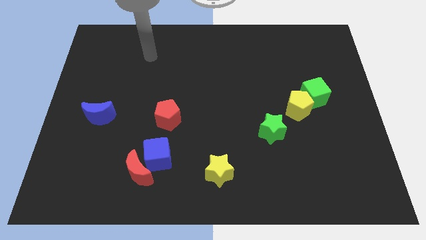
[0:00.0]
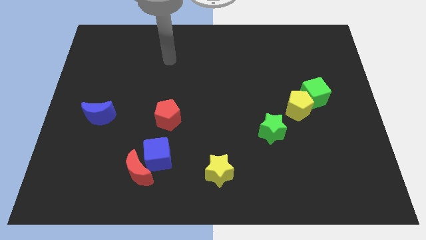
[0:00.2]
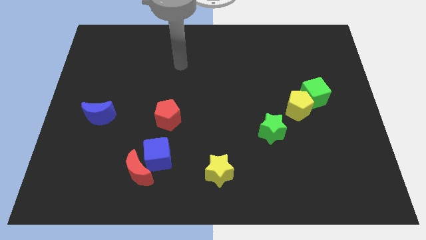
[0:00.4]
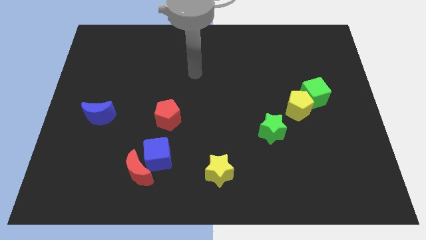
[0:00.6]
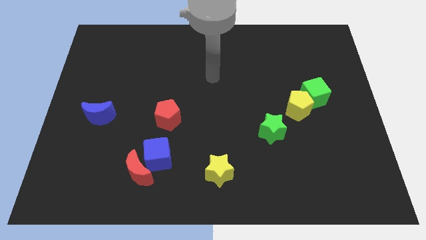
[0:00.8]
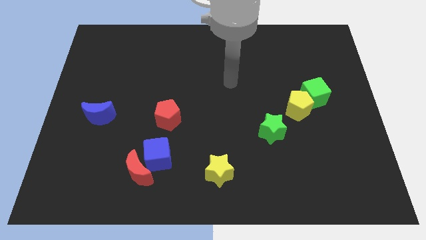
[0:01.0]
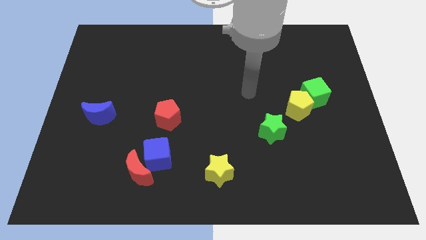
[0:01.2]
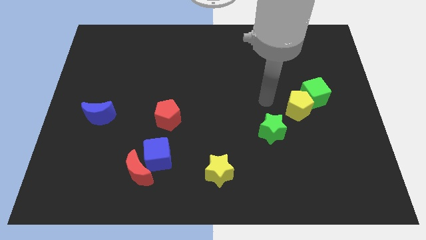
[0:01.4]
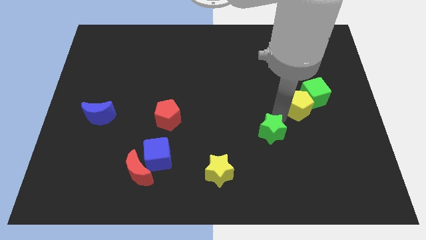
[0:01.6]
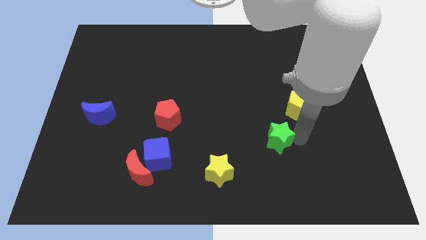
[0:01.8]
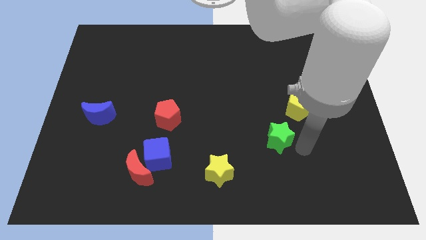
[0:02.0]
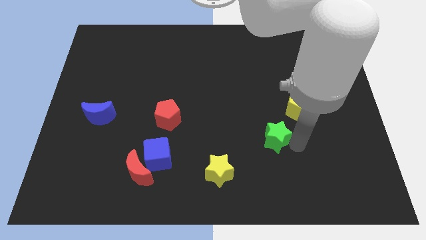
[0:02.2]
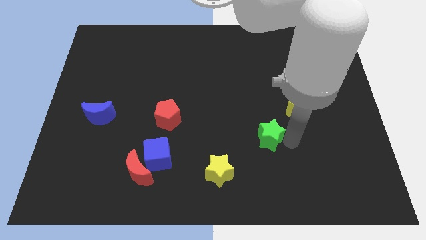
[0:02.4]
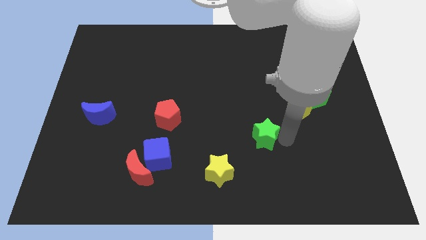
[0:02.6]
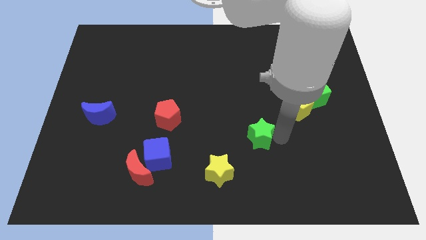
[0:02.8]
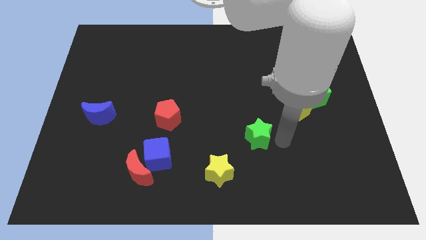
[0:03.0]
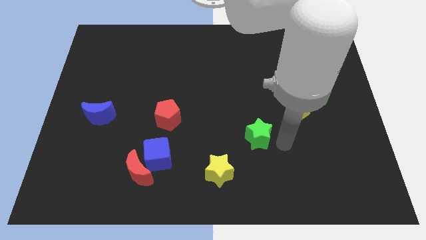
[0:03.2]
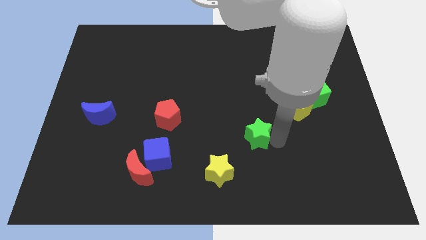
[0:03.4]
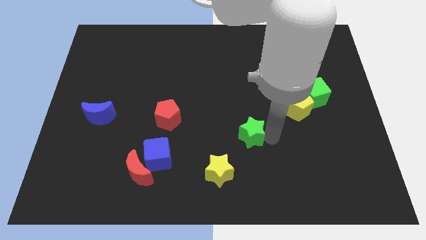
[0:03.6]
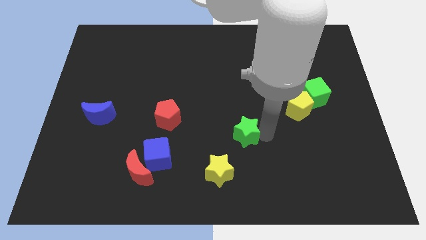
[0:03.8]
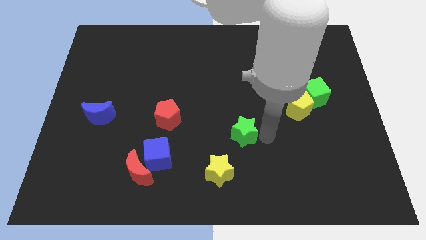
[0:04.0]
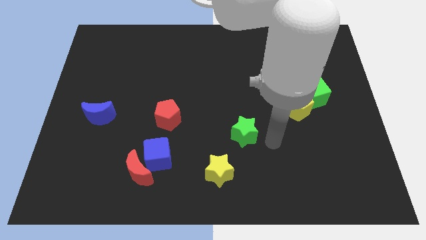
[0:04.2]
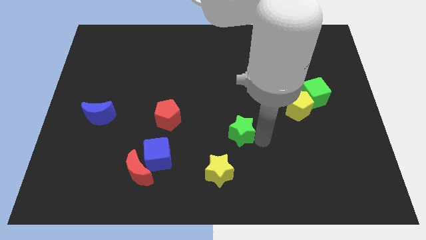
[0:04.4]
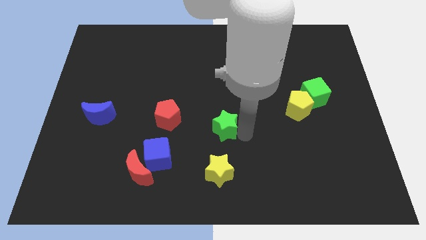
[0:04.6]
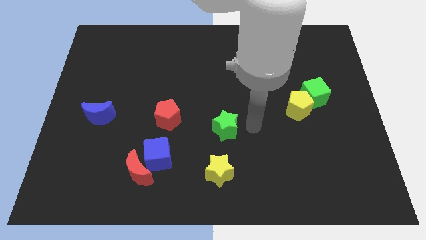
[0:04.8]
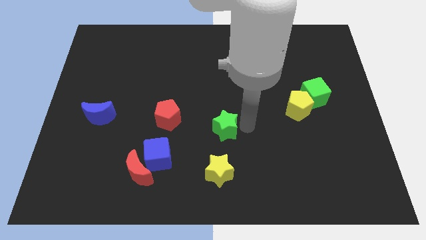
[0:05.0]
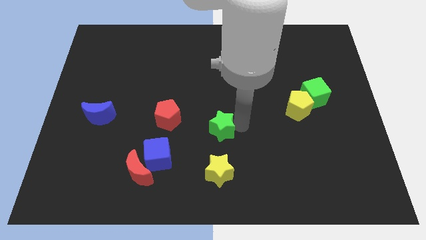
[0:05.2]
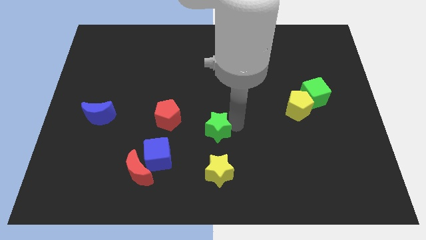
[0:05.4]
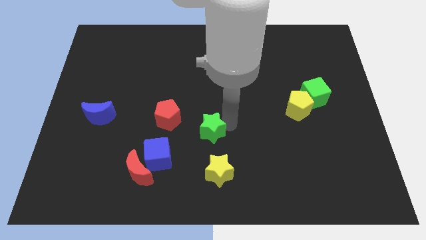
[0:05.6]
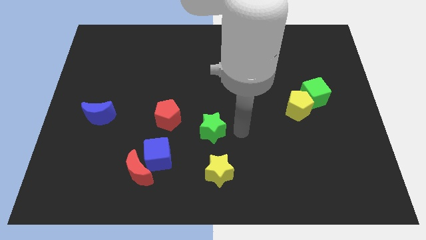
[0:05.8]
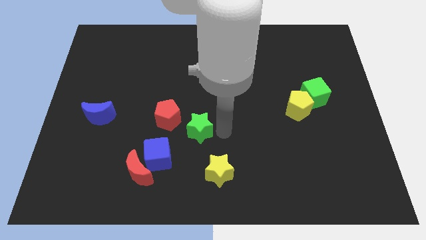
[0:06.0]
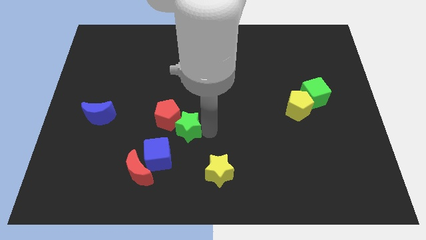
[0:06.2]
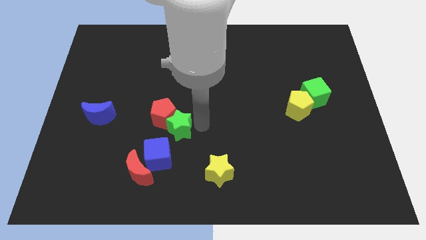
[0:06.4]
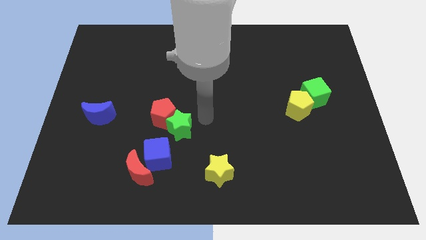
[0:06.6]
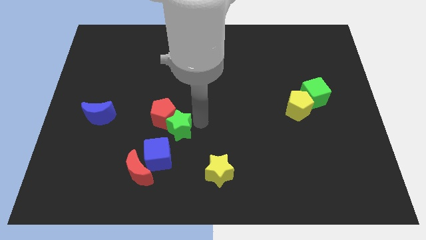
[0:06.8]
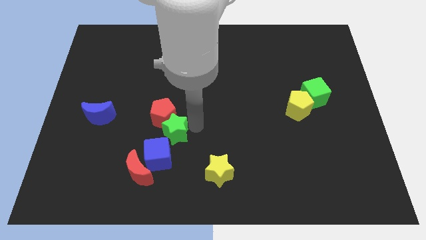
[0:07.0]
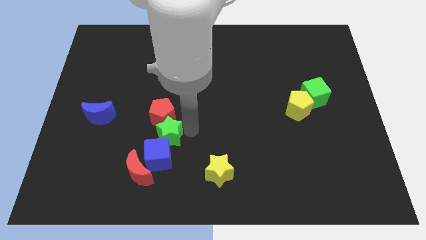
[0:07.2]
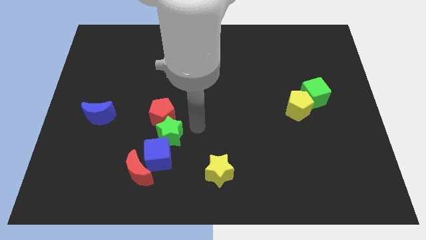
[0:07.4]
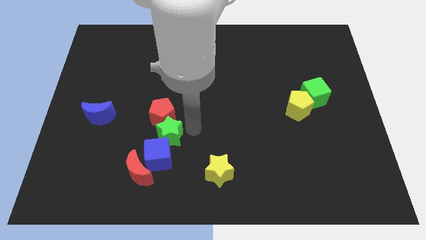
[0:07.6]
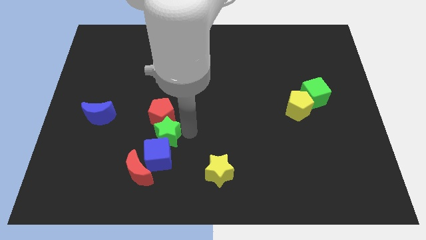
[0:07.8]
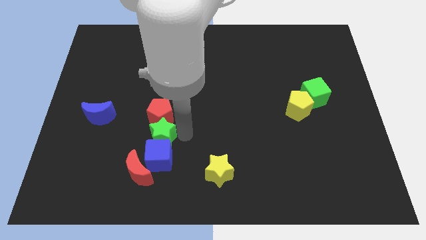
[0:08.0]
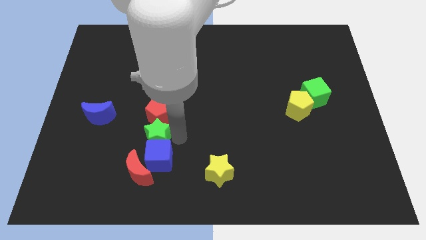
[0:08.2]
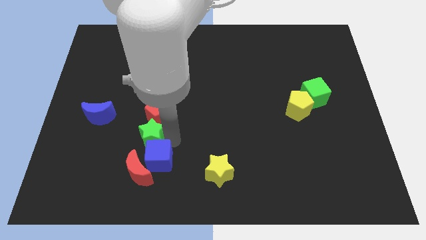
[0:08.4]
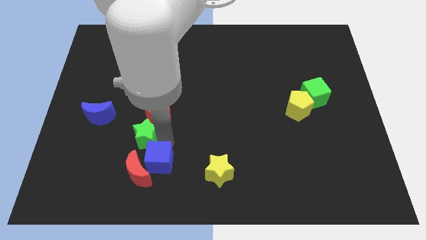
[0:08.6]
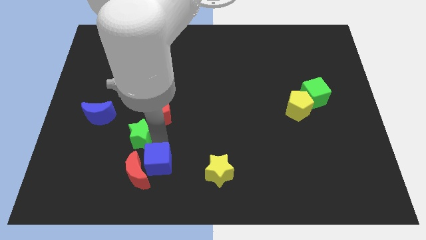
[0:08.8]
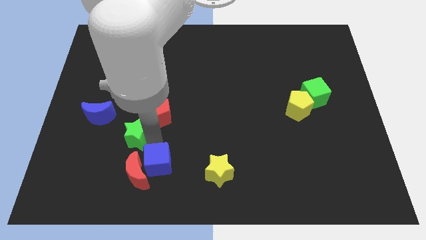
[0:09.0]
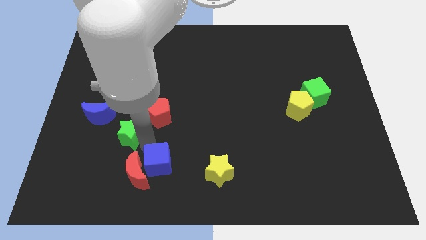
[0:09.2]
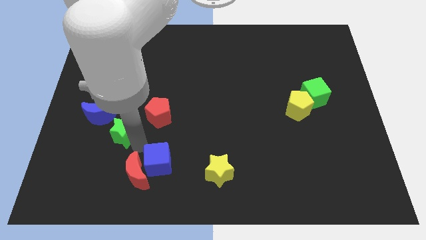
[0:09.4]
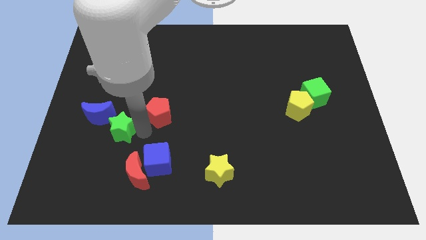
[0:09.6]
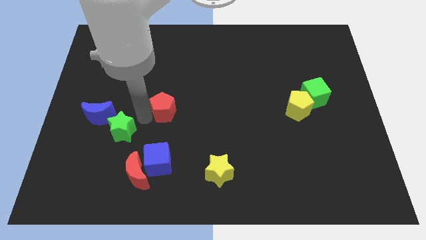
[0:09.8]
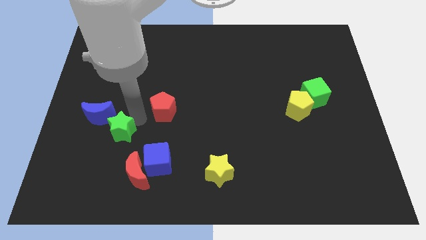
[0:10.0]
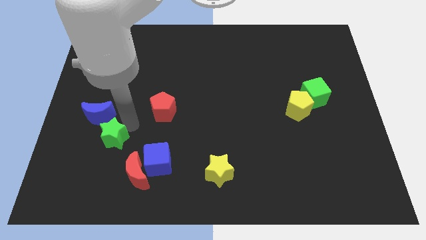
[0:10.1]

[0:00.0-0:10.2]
move the green star below the blue moon

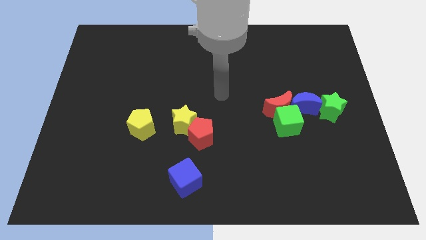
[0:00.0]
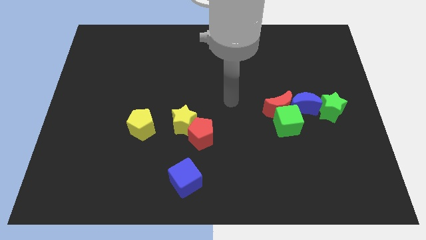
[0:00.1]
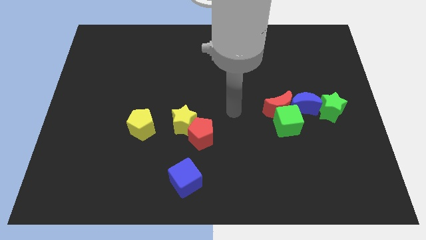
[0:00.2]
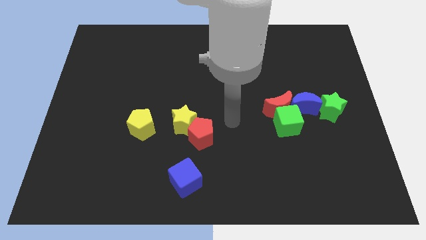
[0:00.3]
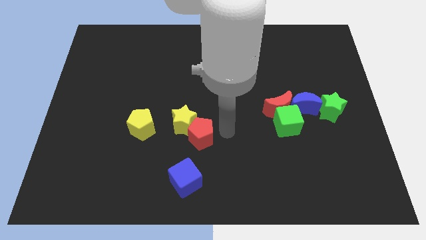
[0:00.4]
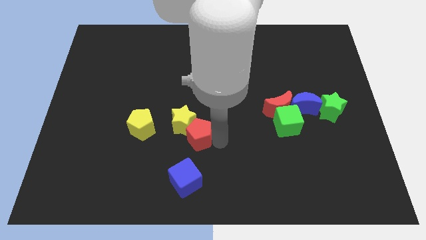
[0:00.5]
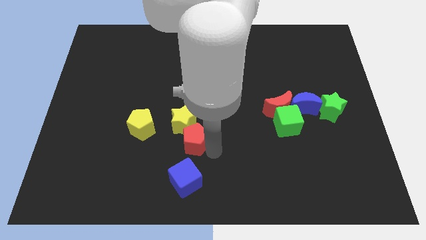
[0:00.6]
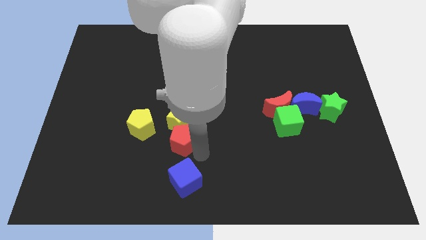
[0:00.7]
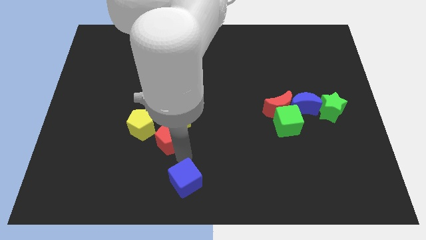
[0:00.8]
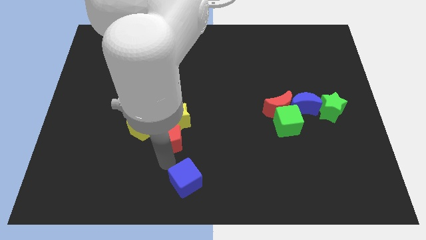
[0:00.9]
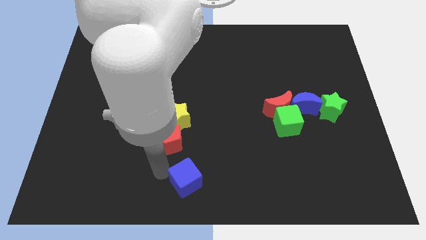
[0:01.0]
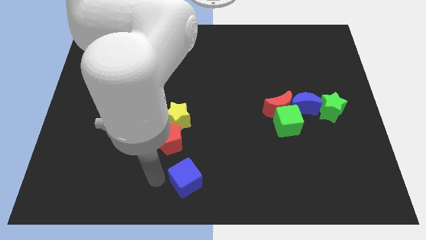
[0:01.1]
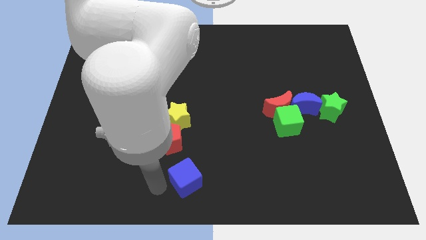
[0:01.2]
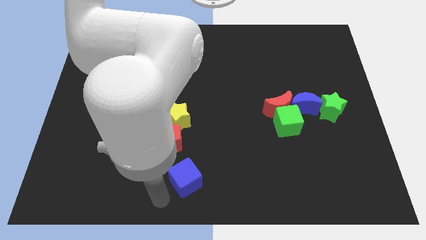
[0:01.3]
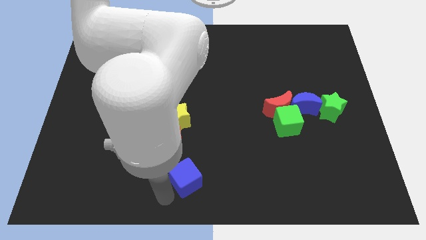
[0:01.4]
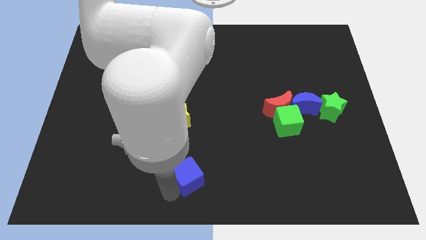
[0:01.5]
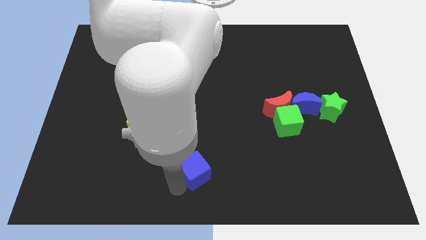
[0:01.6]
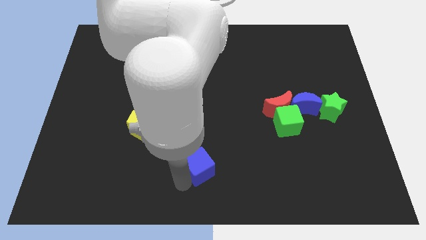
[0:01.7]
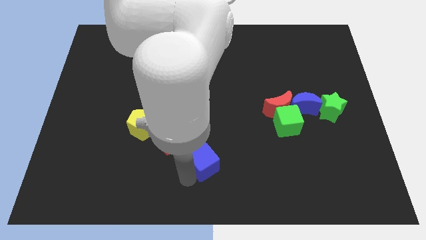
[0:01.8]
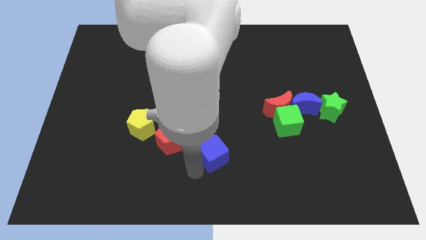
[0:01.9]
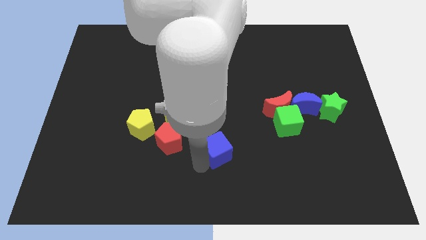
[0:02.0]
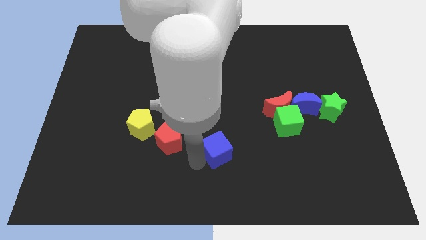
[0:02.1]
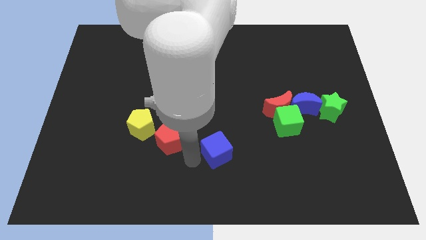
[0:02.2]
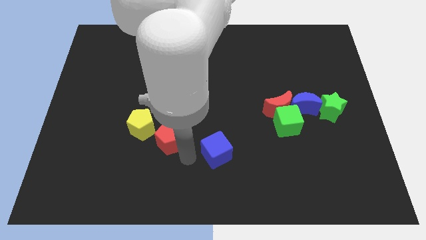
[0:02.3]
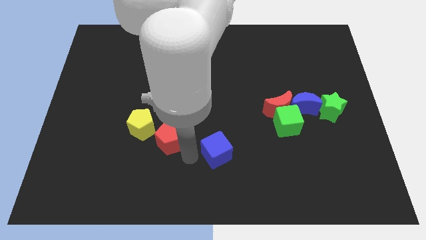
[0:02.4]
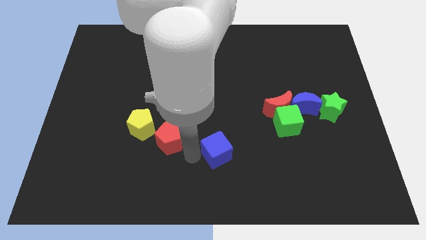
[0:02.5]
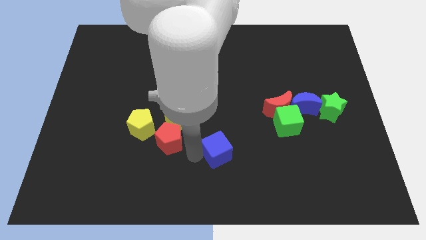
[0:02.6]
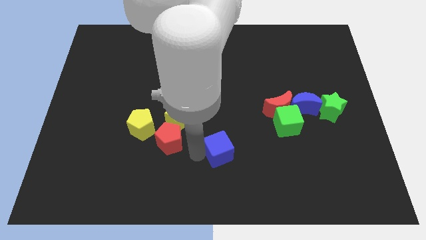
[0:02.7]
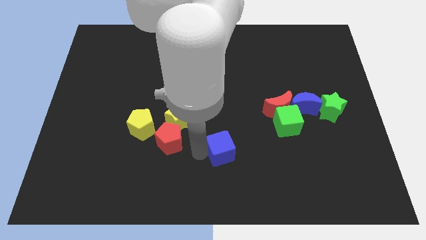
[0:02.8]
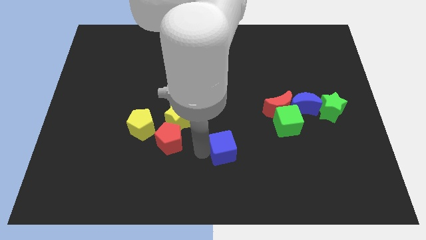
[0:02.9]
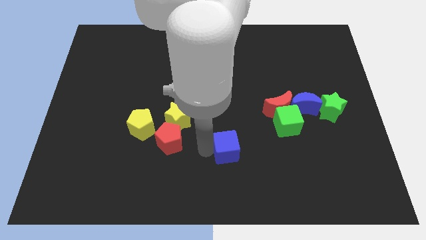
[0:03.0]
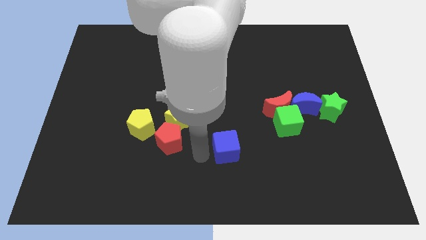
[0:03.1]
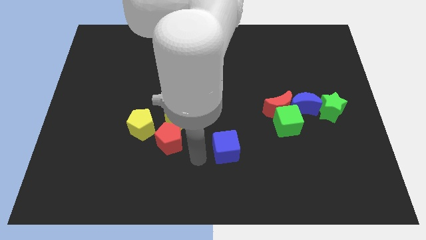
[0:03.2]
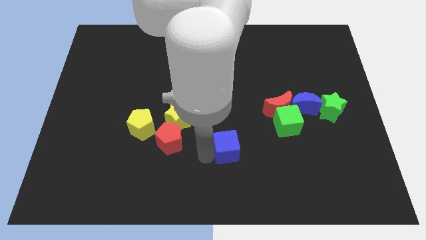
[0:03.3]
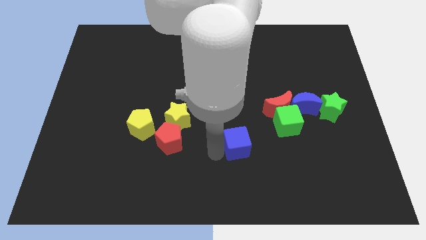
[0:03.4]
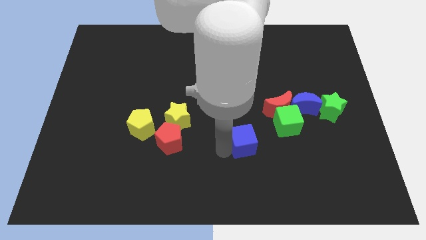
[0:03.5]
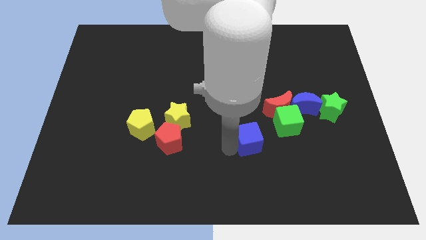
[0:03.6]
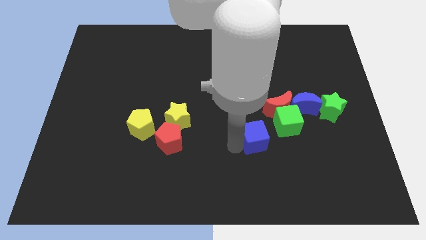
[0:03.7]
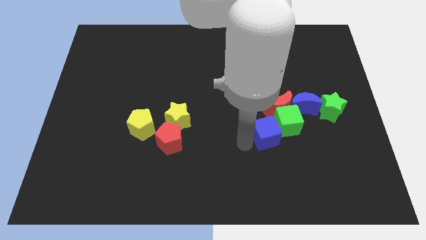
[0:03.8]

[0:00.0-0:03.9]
move the blue cube to the bottom left side of the blue moon
